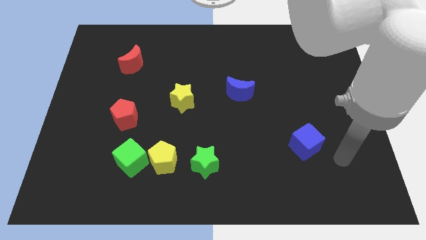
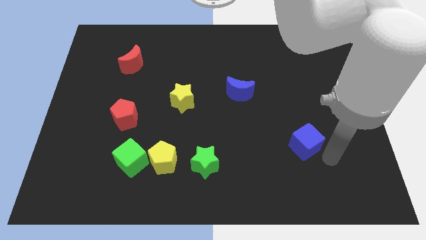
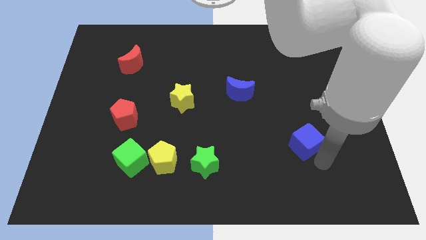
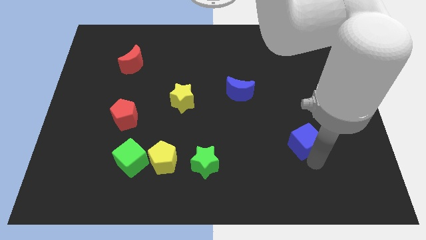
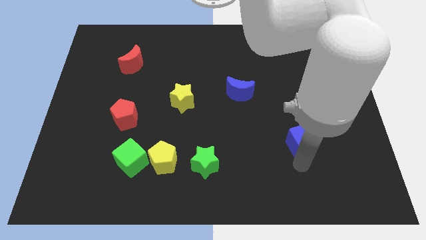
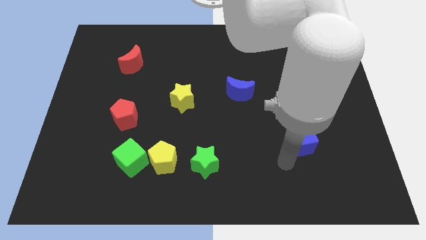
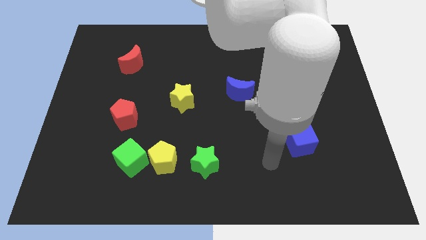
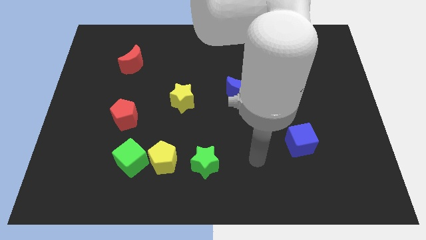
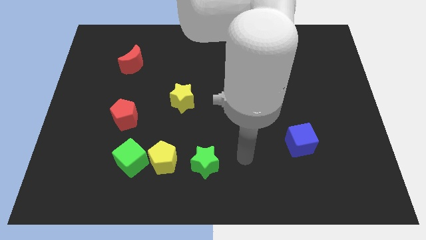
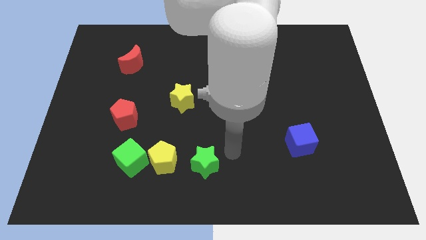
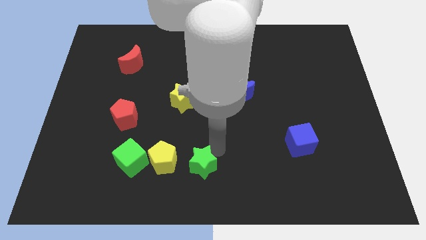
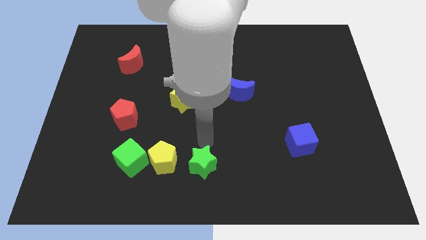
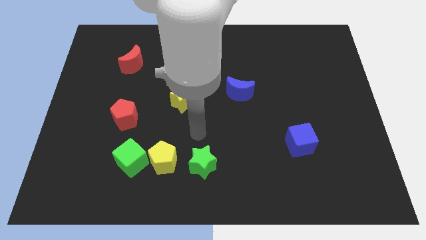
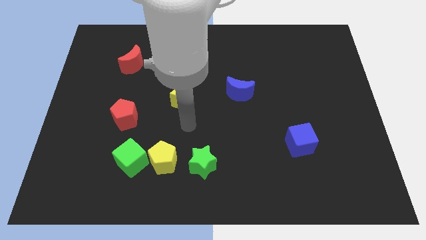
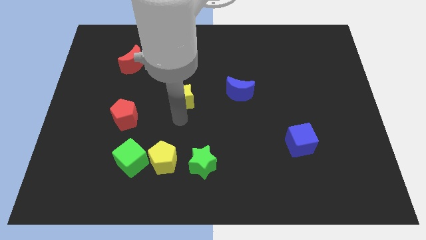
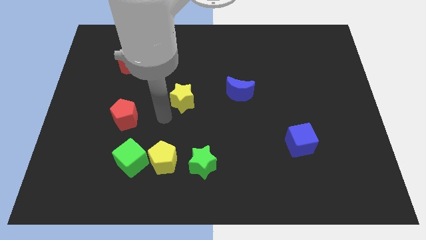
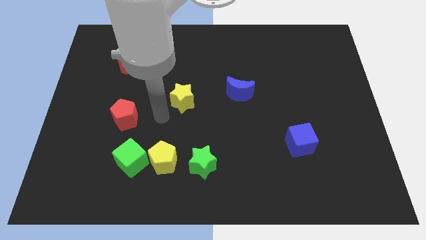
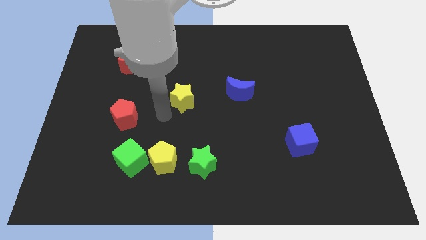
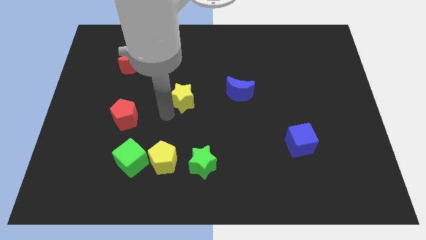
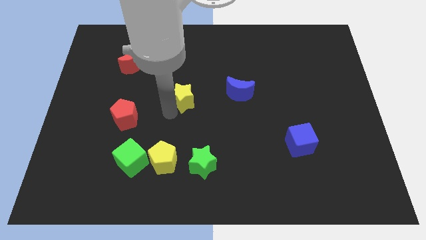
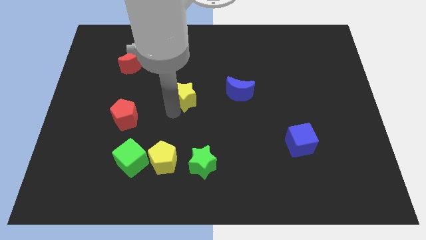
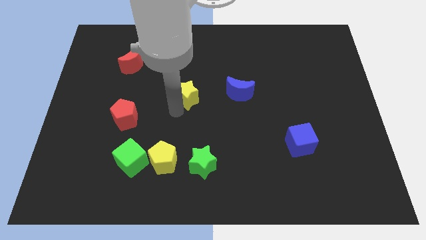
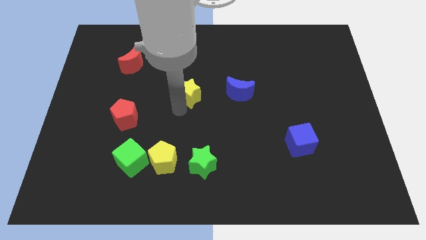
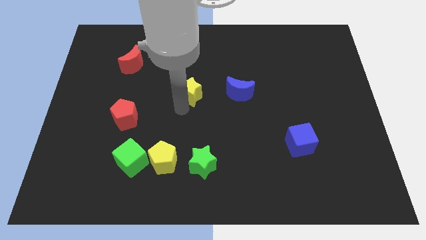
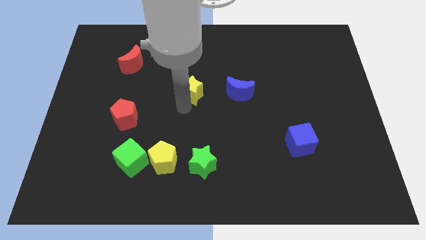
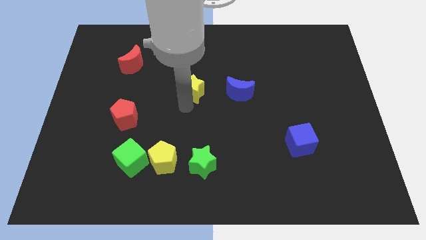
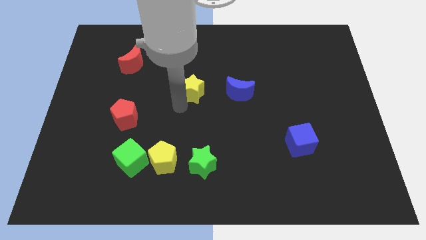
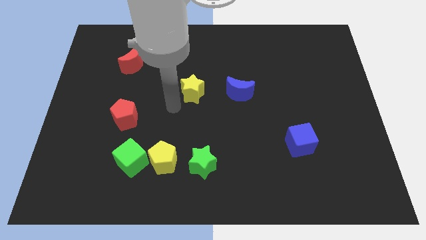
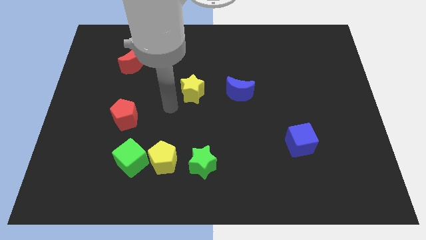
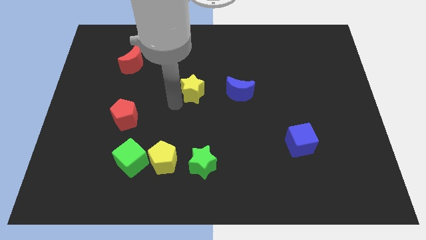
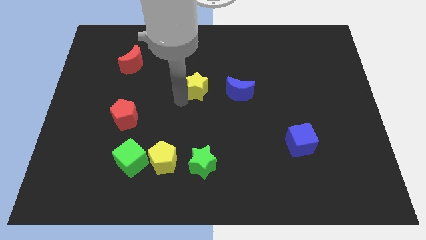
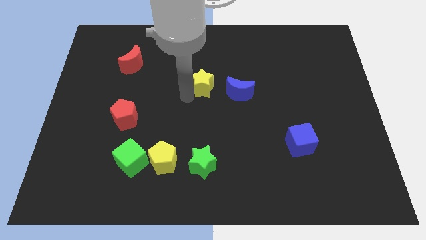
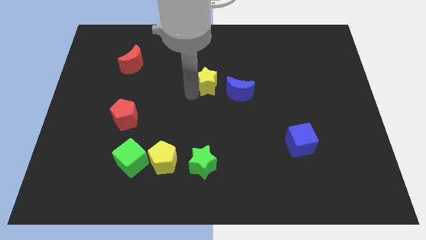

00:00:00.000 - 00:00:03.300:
push the yellow star slightly up and right

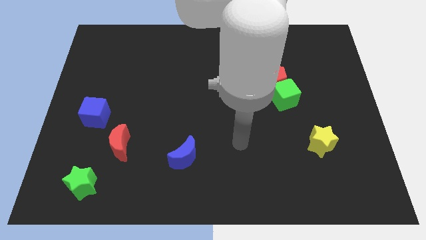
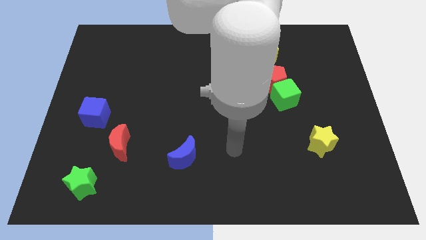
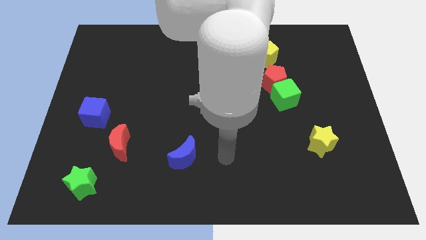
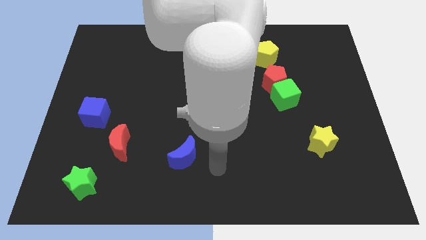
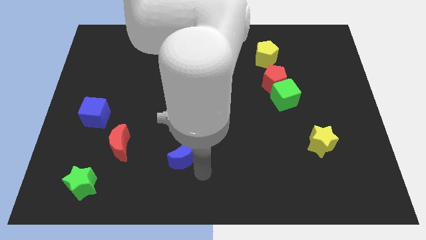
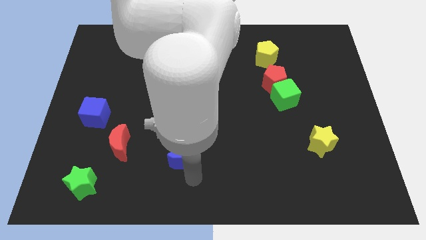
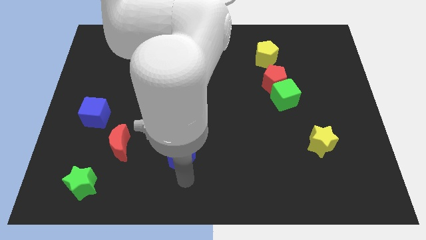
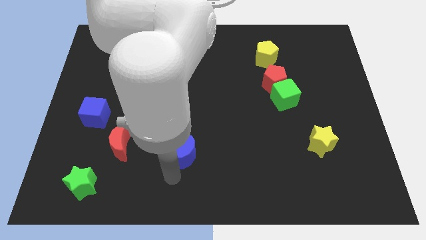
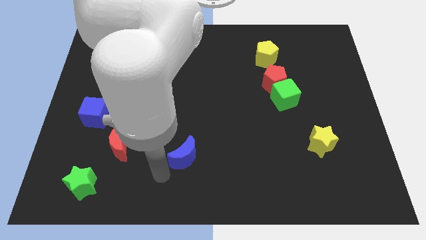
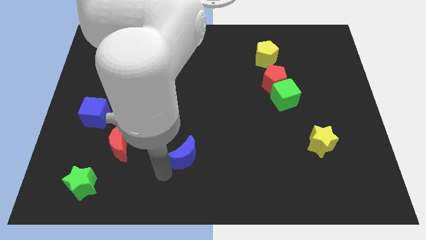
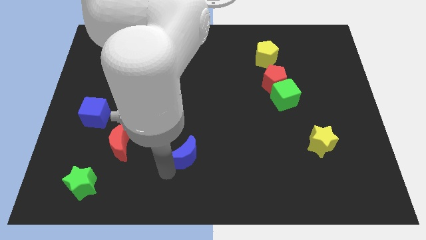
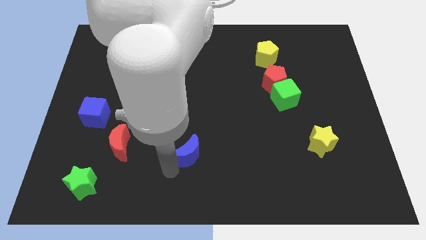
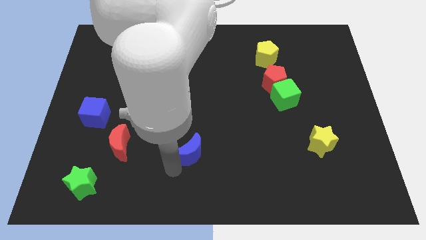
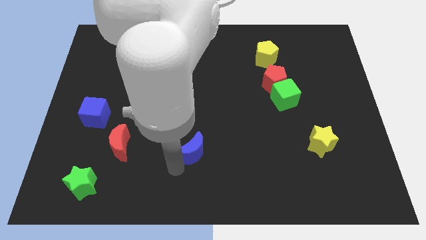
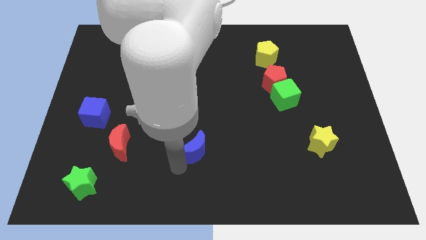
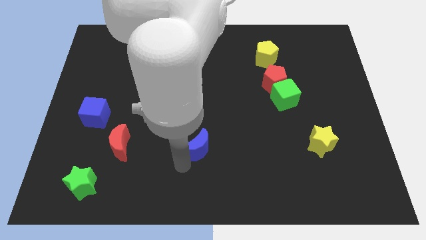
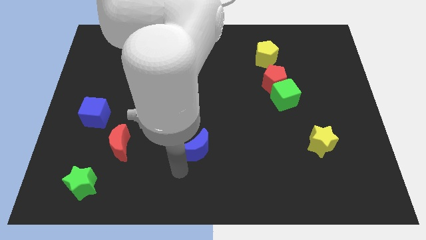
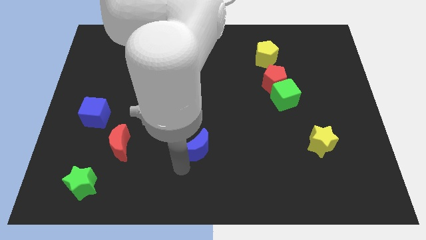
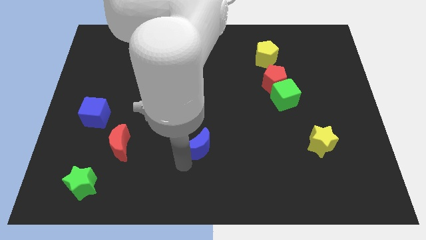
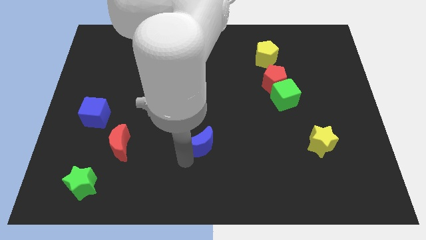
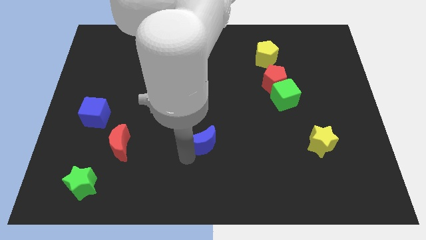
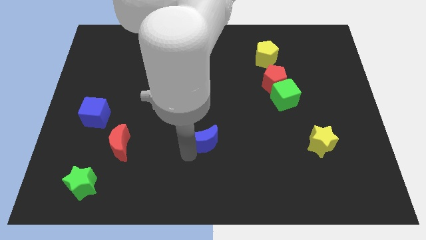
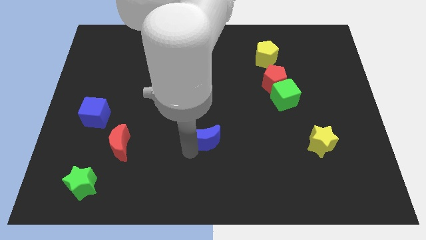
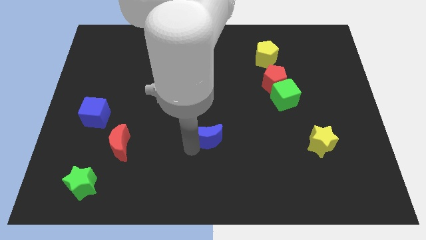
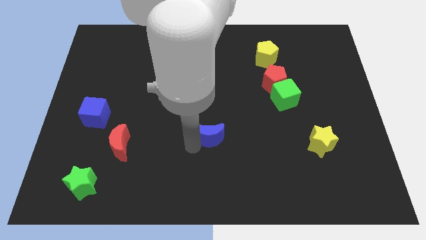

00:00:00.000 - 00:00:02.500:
slightly slide the blue moon up and right

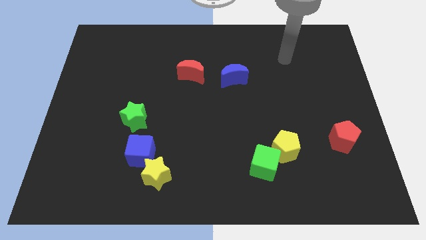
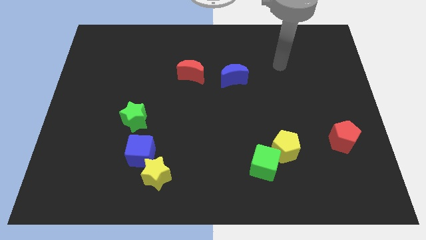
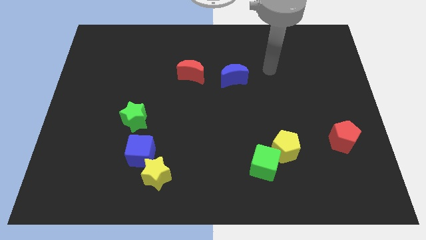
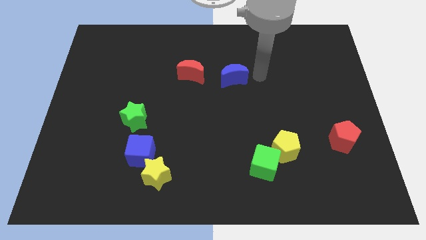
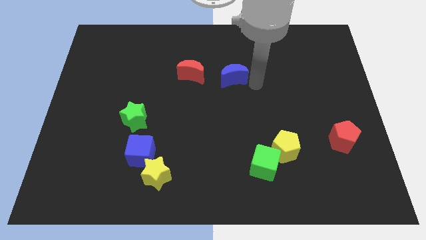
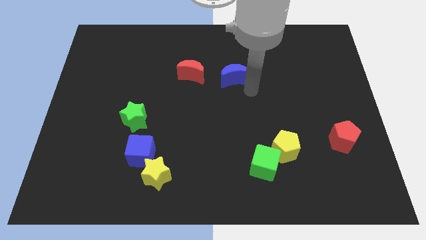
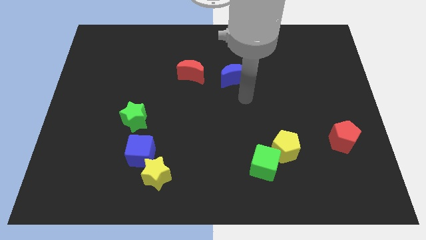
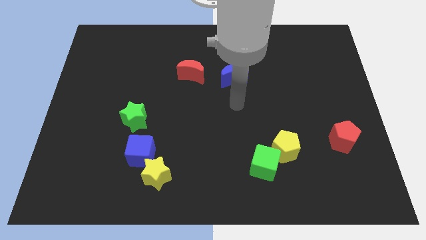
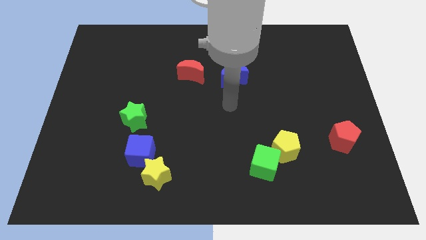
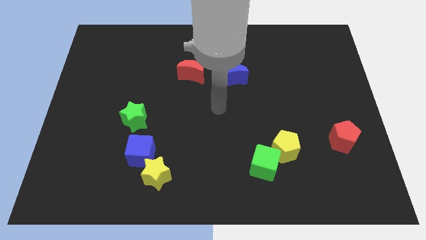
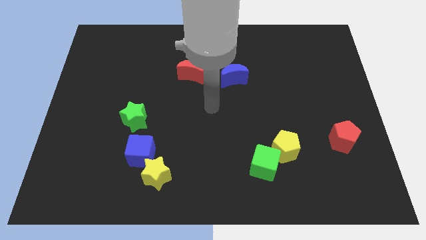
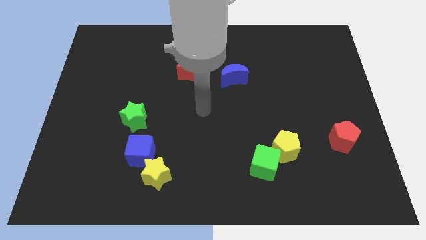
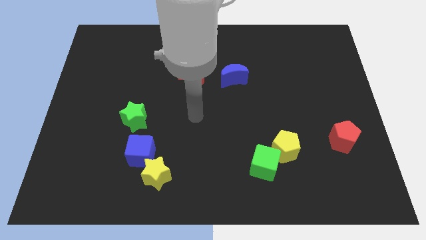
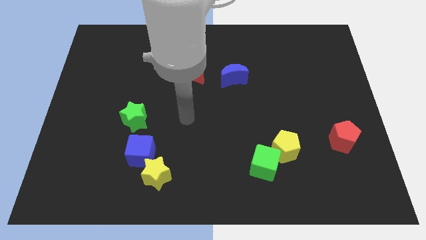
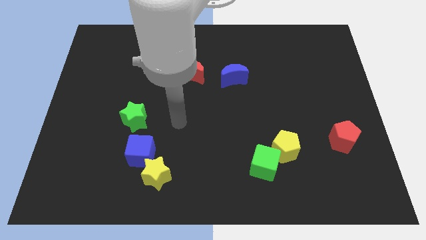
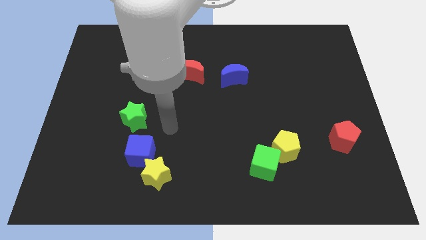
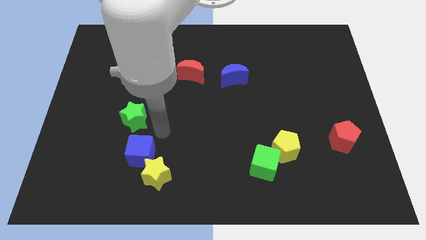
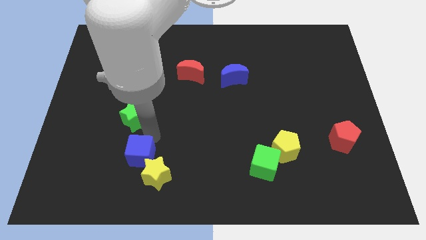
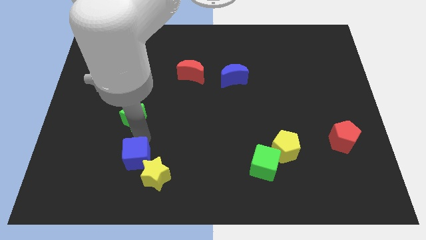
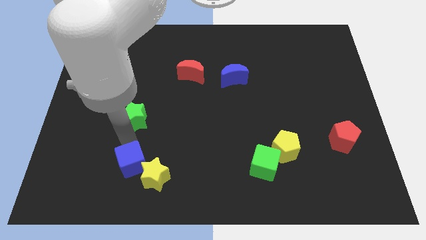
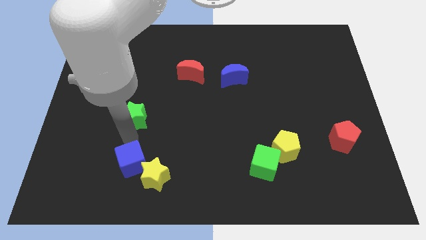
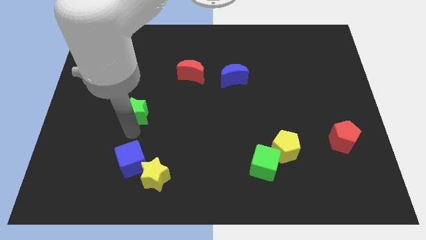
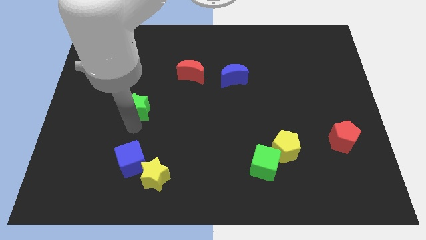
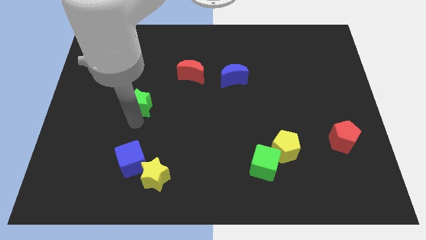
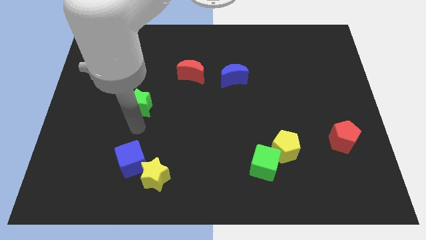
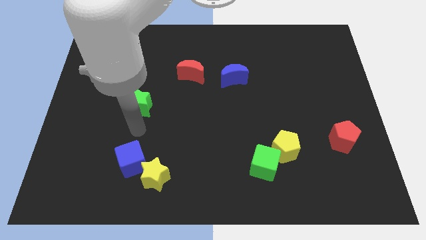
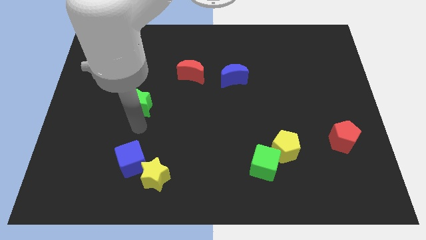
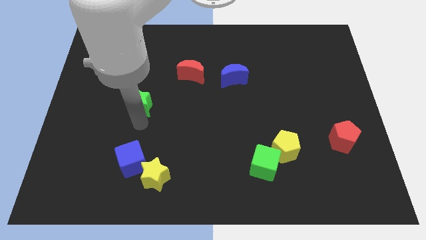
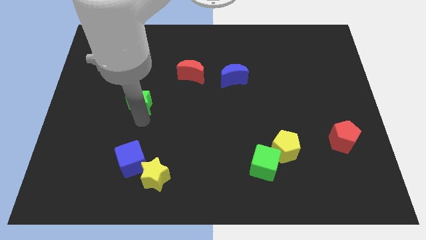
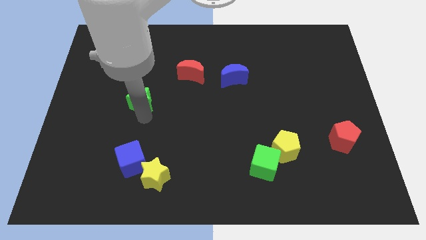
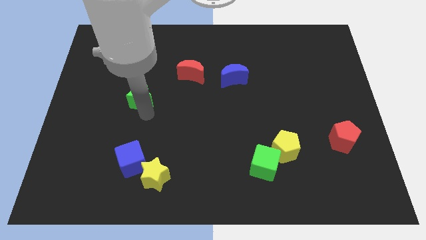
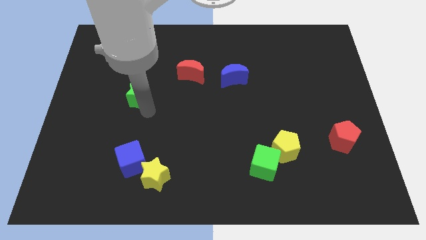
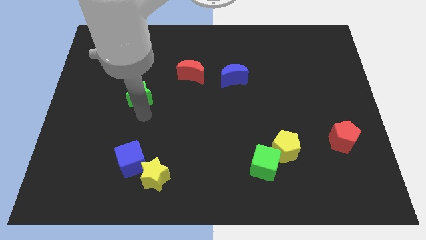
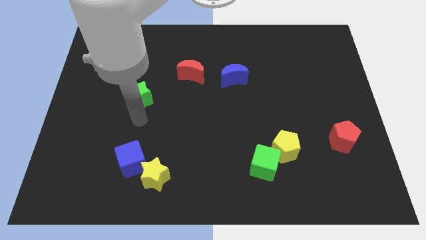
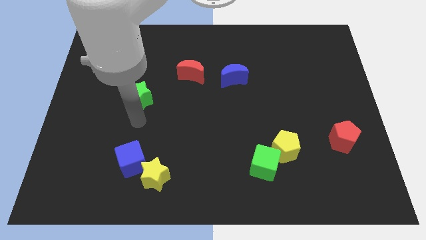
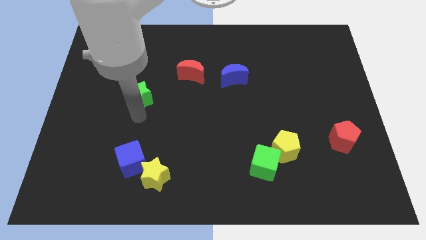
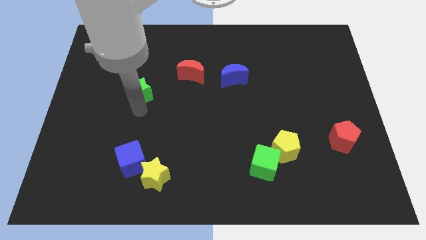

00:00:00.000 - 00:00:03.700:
move the green star upwards slightly
